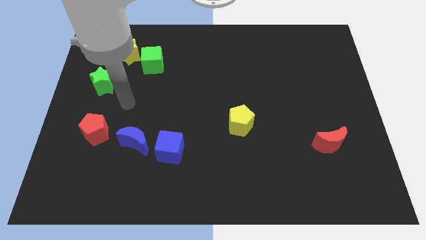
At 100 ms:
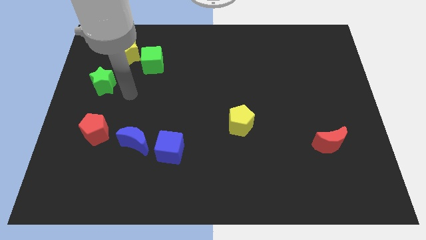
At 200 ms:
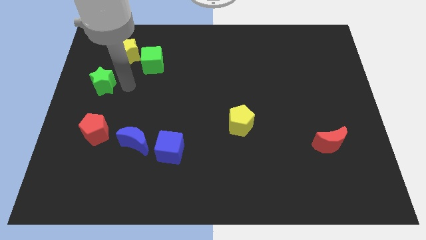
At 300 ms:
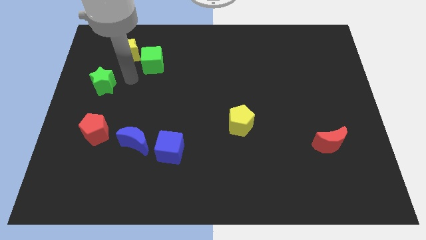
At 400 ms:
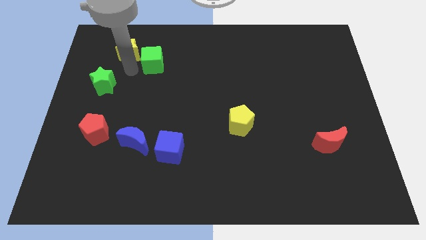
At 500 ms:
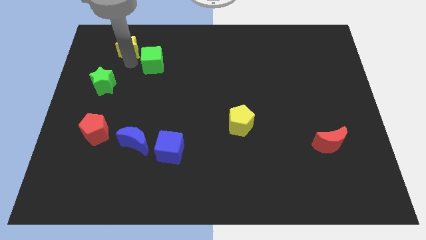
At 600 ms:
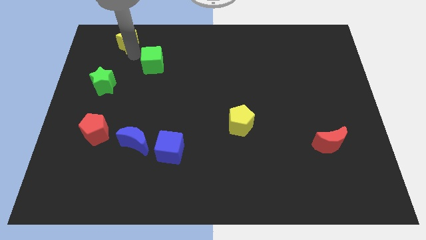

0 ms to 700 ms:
pull the green cube apart from the yellow star

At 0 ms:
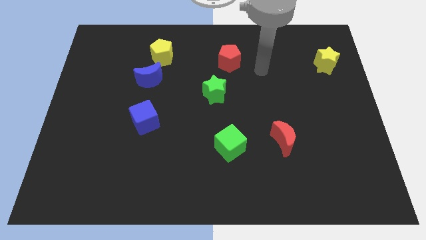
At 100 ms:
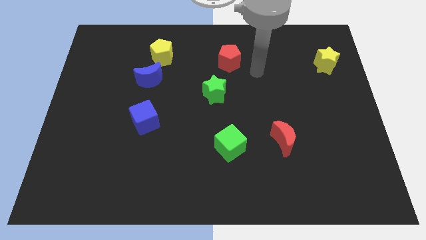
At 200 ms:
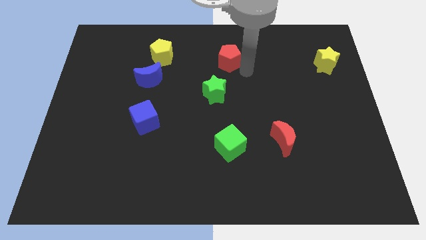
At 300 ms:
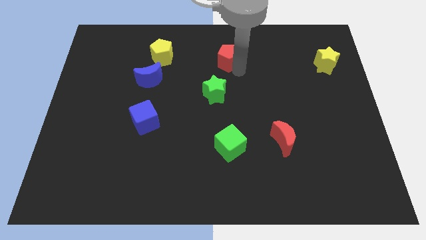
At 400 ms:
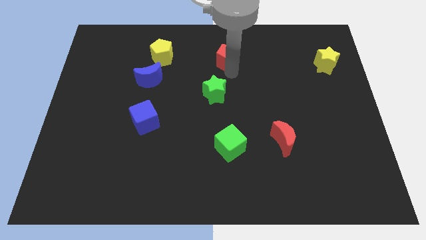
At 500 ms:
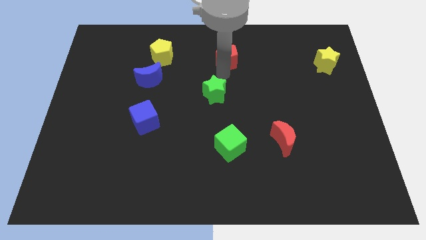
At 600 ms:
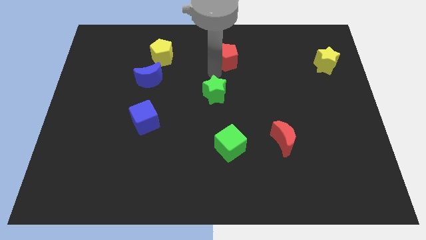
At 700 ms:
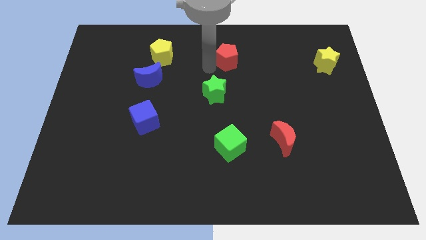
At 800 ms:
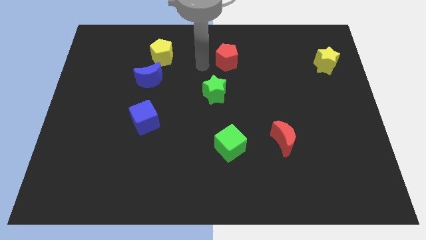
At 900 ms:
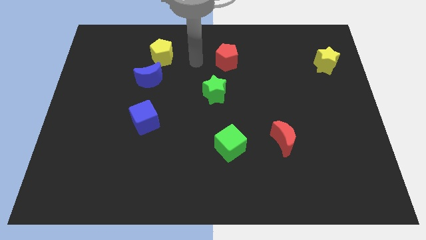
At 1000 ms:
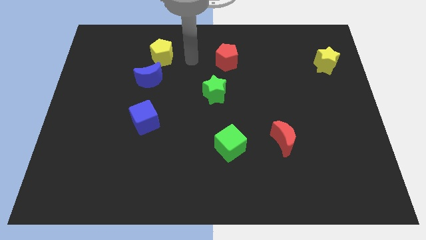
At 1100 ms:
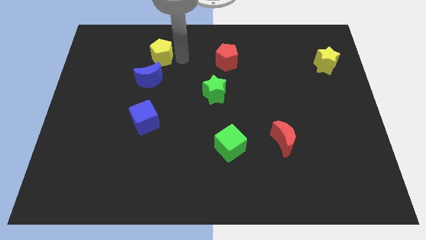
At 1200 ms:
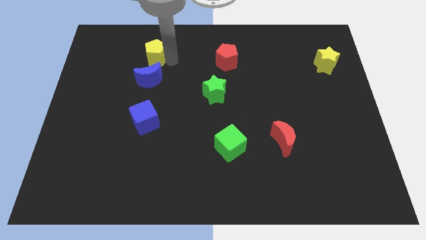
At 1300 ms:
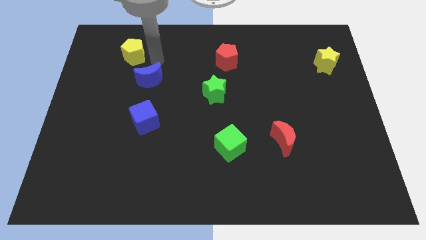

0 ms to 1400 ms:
pull the blue moon apart from the yellow pentagon

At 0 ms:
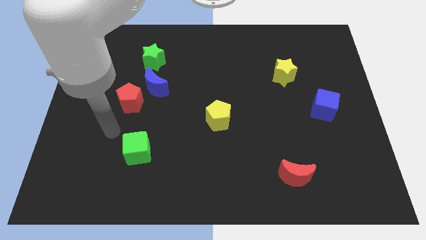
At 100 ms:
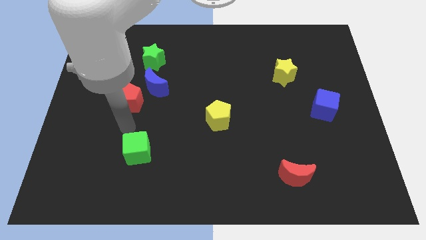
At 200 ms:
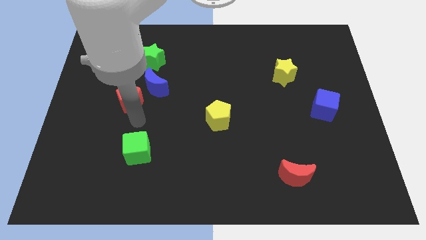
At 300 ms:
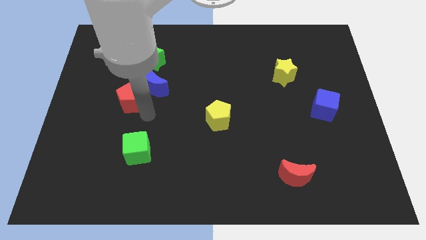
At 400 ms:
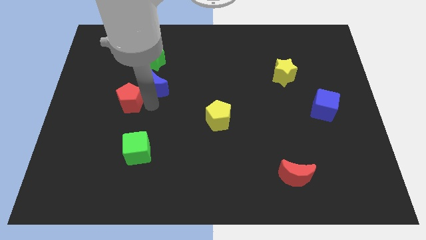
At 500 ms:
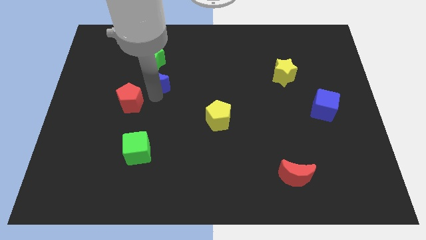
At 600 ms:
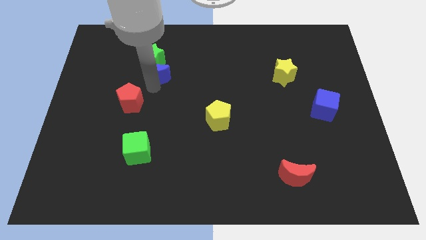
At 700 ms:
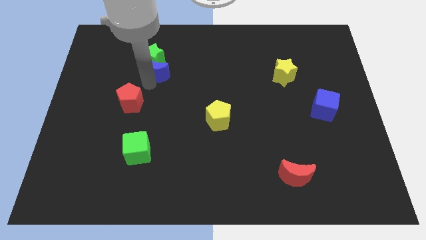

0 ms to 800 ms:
pull the red pentagon apart from the blue moon

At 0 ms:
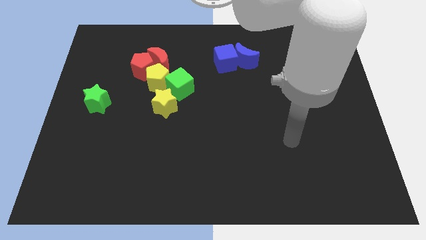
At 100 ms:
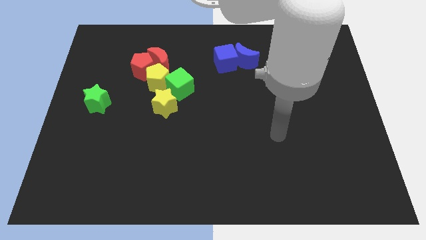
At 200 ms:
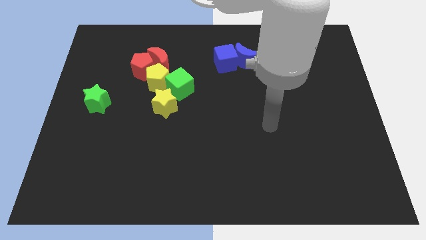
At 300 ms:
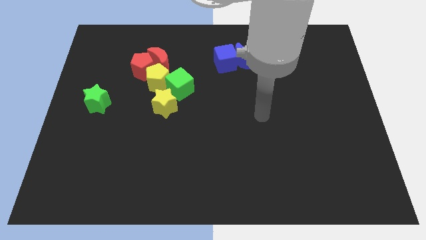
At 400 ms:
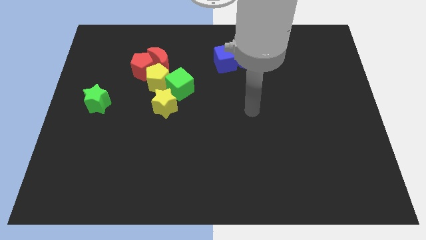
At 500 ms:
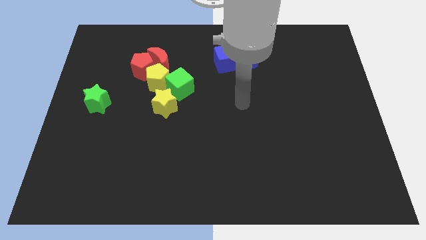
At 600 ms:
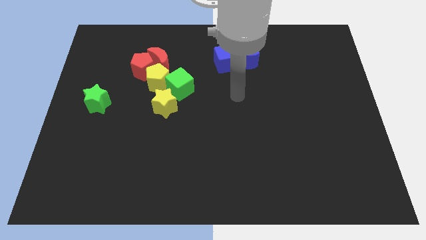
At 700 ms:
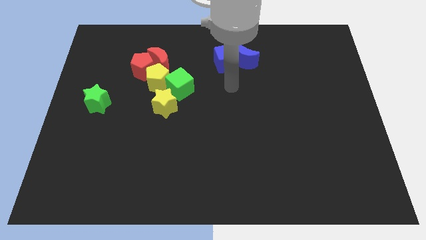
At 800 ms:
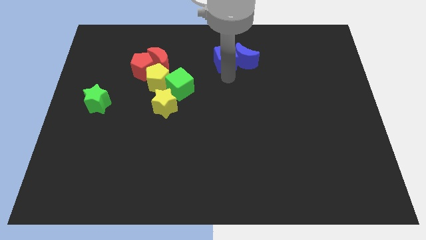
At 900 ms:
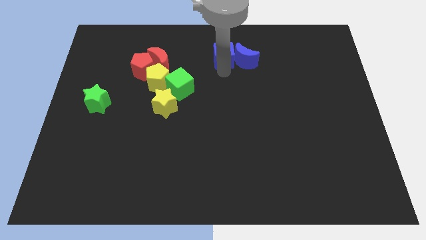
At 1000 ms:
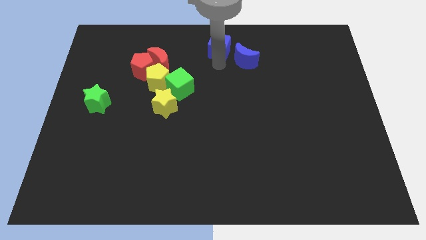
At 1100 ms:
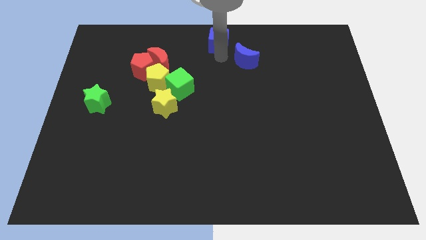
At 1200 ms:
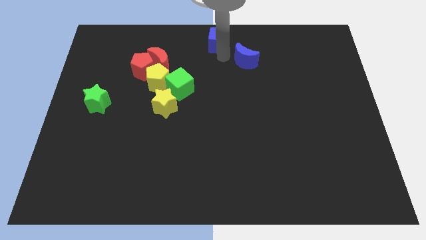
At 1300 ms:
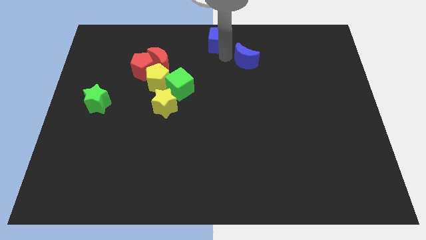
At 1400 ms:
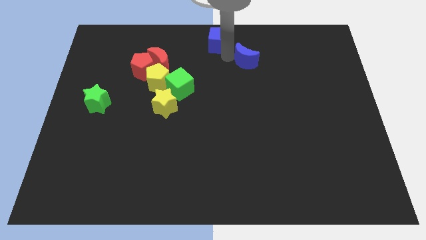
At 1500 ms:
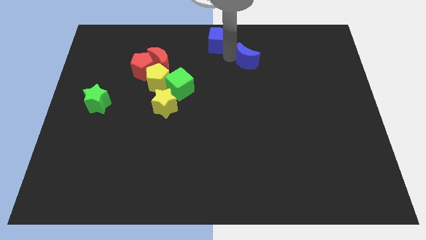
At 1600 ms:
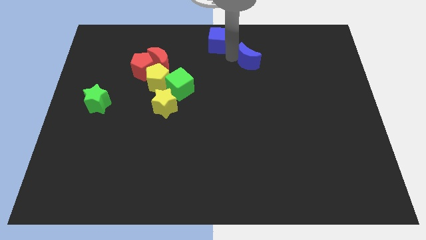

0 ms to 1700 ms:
pull the blue moon apart from the blue cube

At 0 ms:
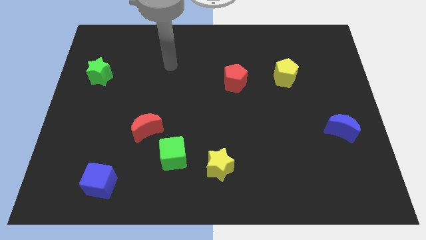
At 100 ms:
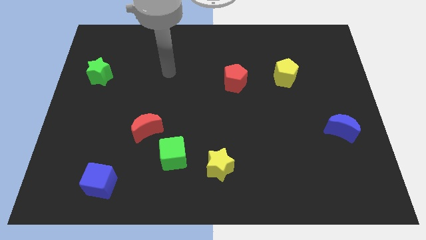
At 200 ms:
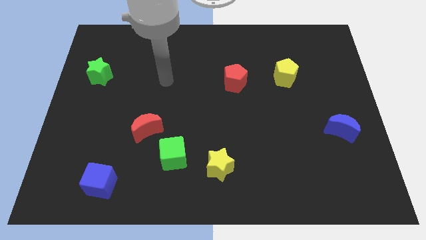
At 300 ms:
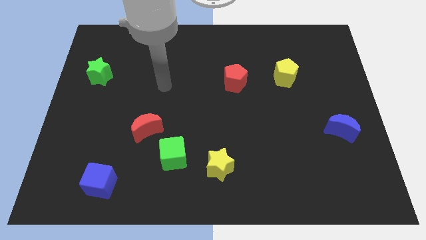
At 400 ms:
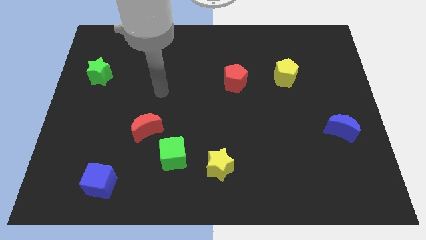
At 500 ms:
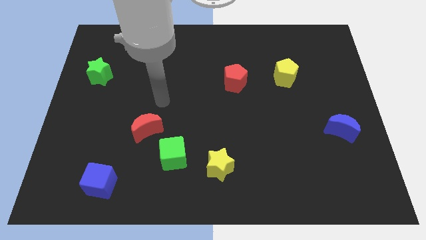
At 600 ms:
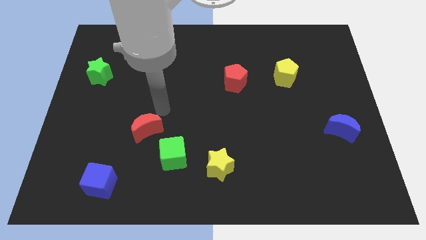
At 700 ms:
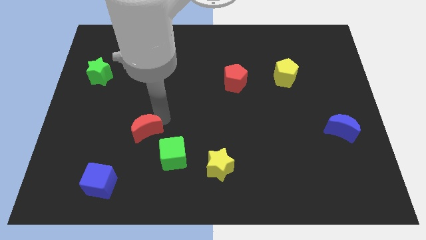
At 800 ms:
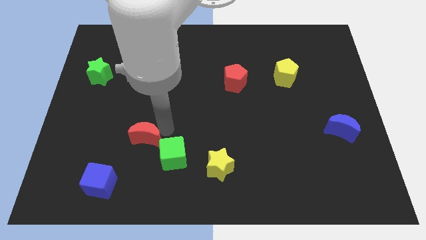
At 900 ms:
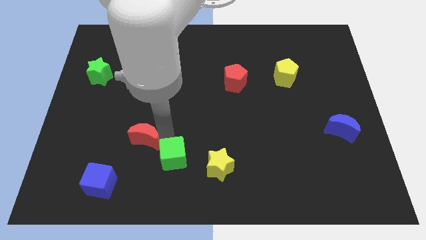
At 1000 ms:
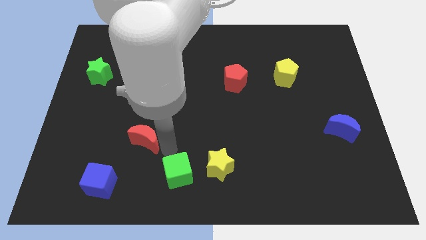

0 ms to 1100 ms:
pull the red moon apart from the green cube

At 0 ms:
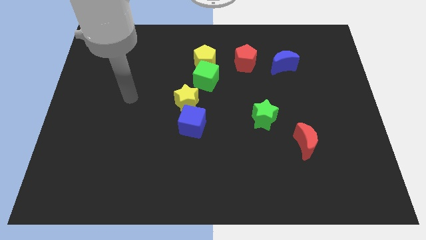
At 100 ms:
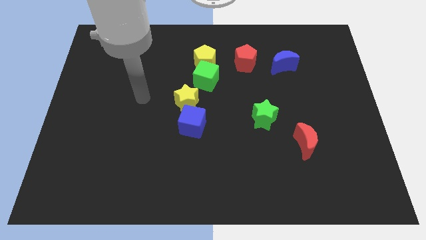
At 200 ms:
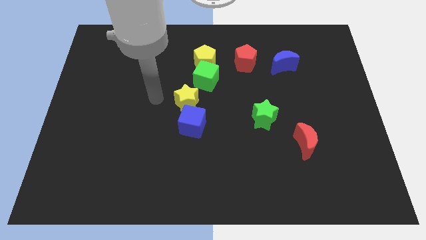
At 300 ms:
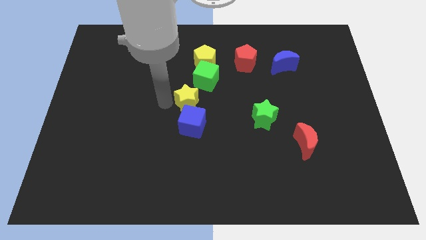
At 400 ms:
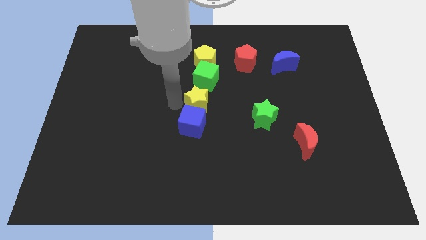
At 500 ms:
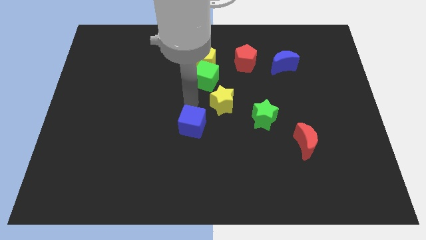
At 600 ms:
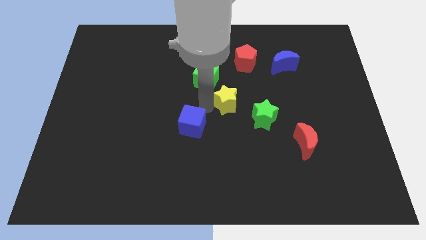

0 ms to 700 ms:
move the blue cube away from the yellow star

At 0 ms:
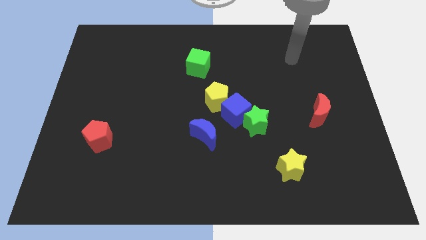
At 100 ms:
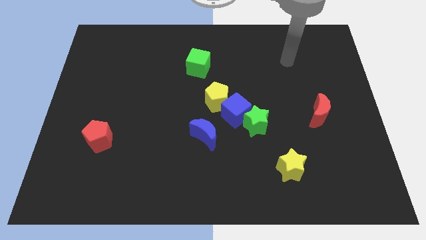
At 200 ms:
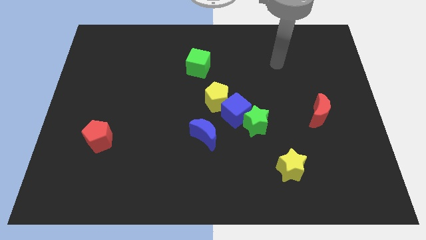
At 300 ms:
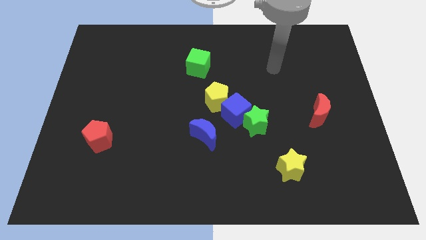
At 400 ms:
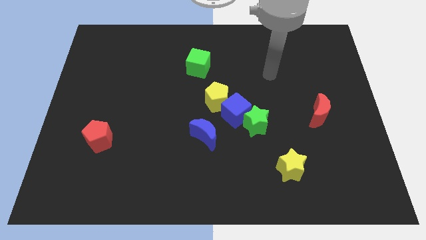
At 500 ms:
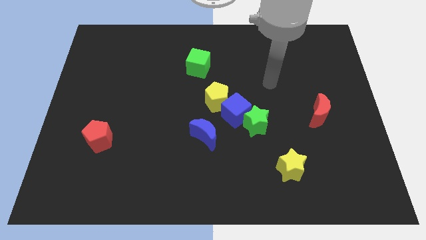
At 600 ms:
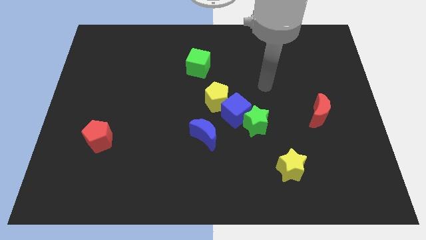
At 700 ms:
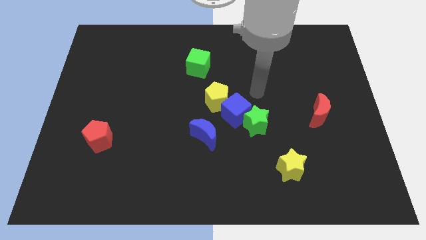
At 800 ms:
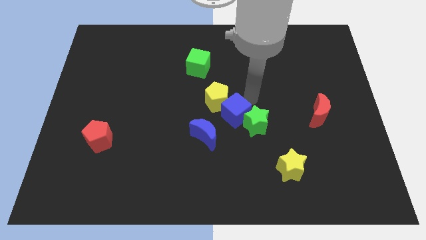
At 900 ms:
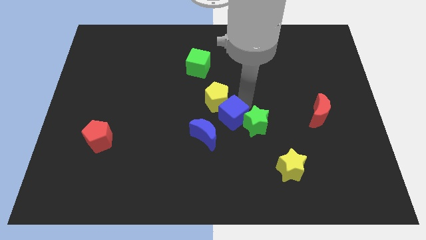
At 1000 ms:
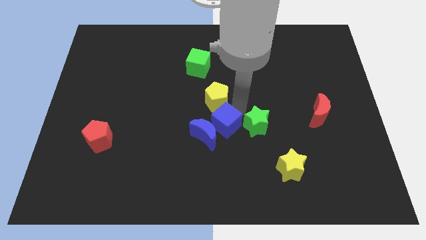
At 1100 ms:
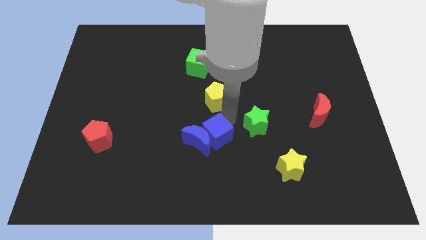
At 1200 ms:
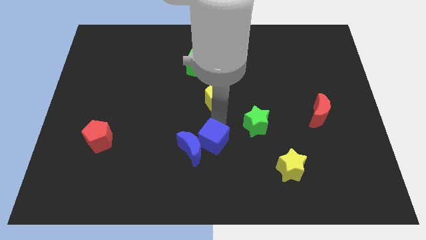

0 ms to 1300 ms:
separate the yellow pentagon from the blue cube

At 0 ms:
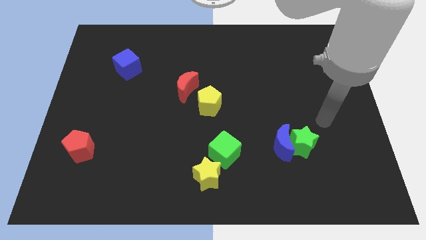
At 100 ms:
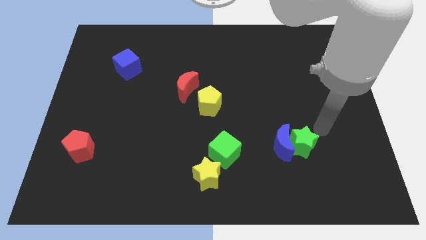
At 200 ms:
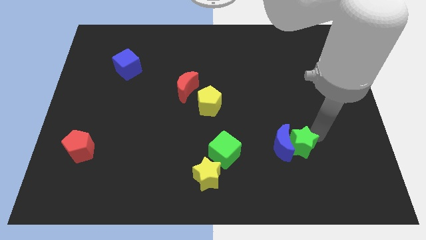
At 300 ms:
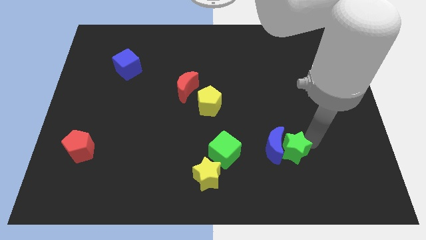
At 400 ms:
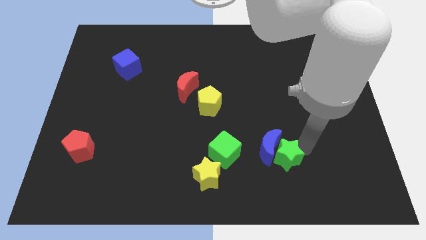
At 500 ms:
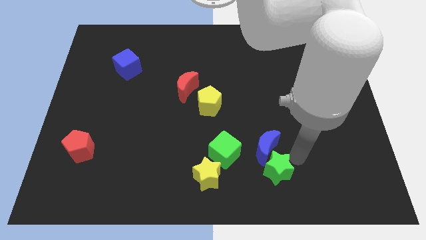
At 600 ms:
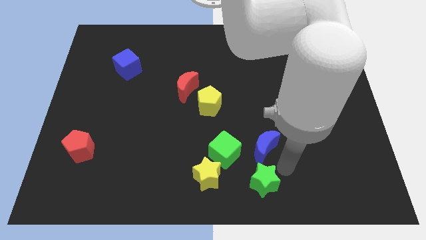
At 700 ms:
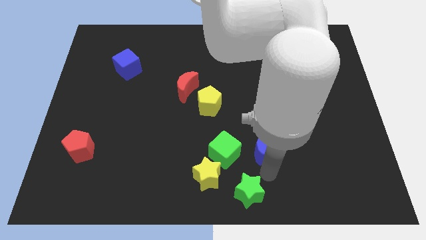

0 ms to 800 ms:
separate the blue moon from the green star

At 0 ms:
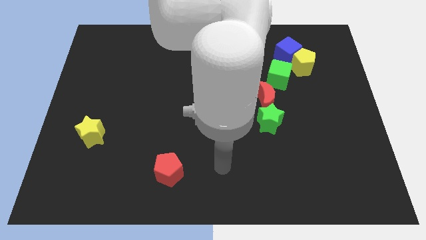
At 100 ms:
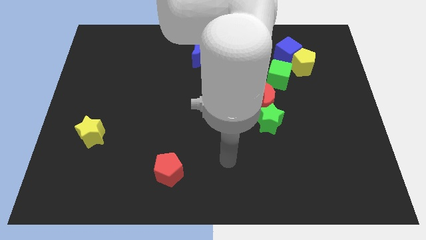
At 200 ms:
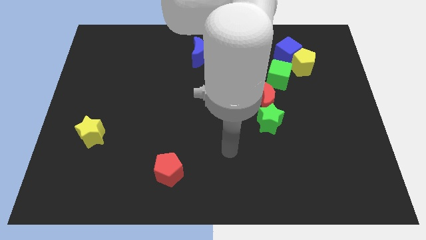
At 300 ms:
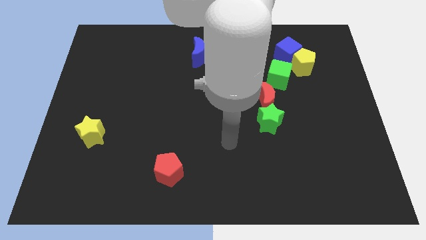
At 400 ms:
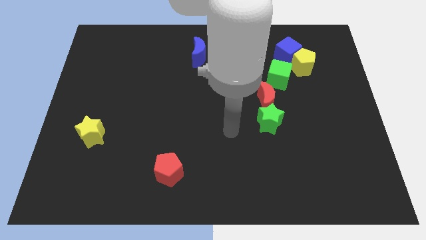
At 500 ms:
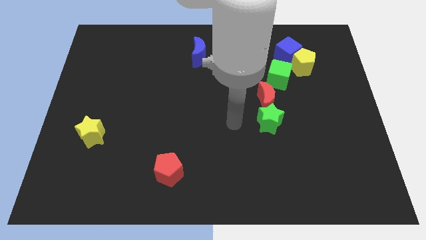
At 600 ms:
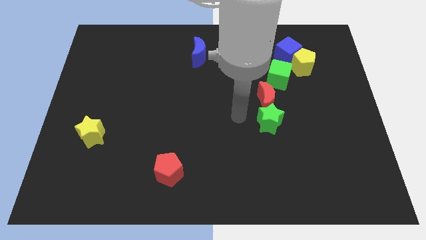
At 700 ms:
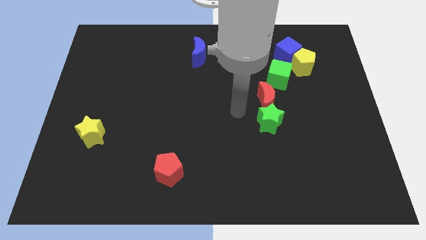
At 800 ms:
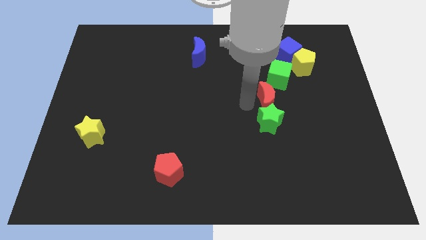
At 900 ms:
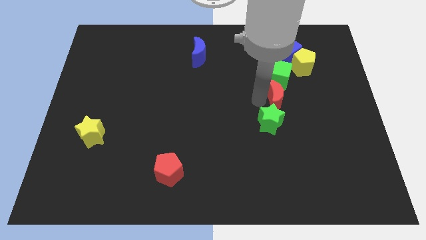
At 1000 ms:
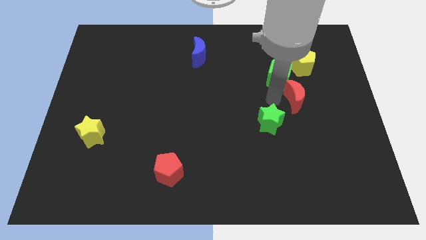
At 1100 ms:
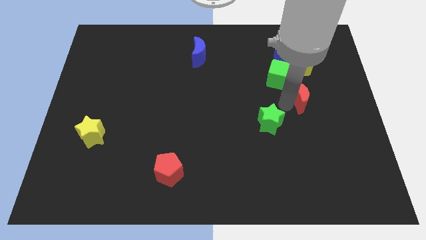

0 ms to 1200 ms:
pull the green star apart from the red moon
